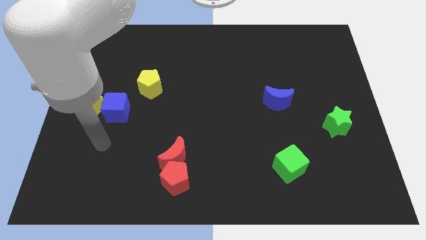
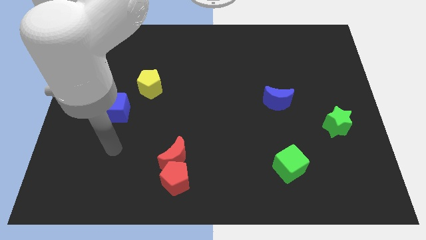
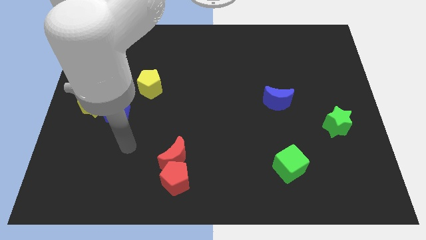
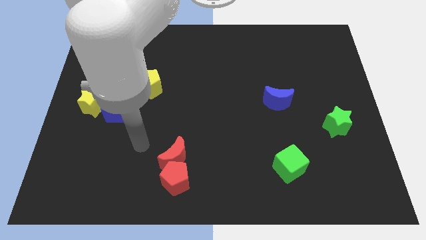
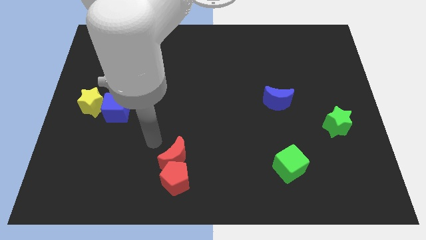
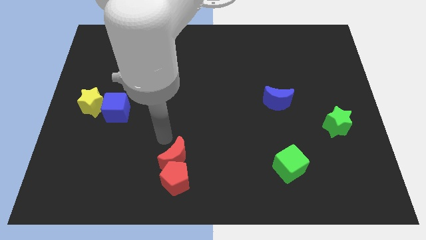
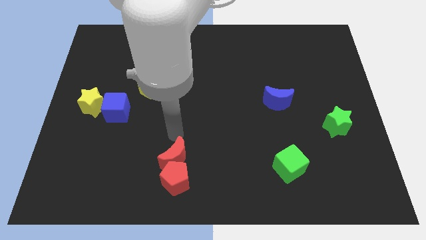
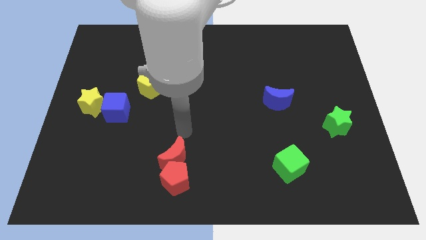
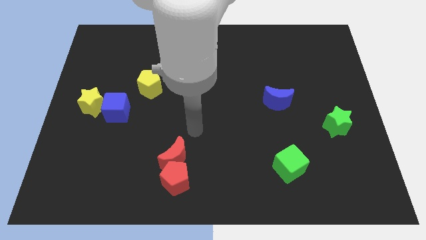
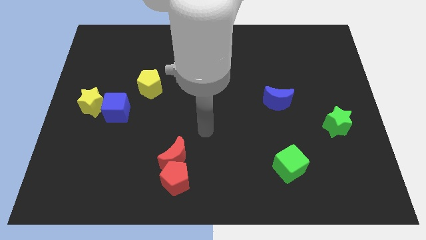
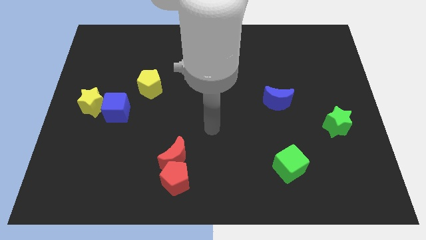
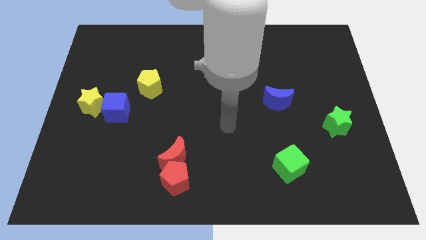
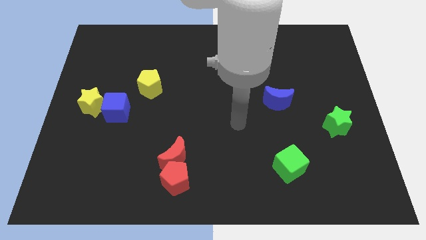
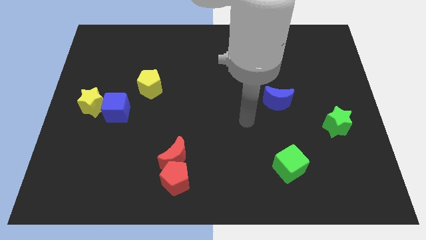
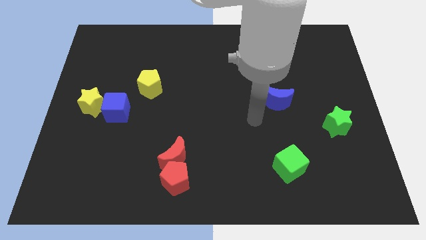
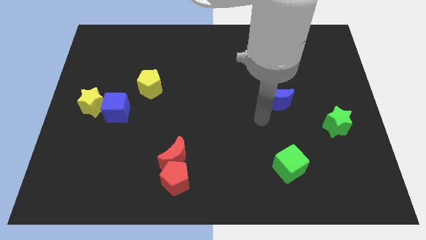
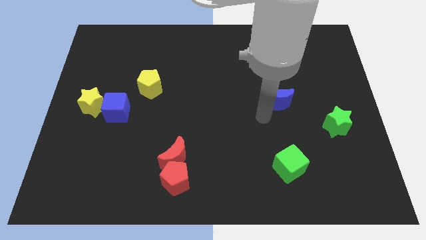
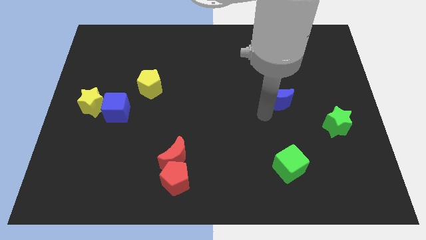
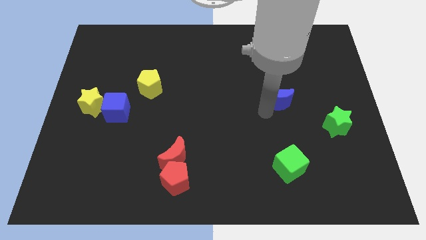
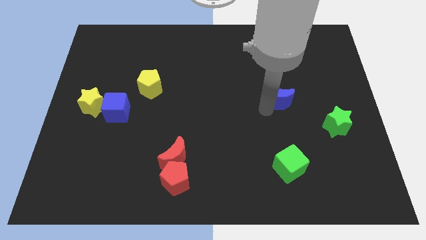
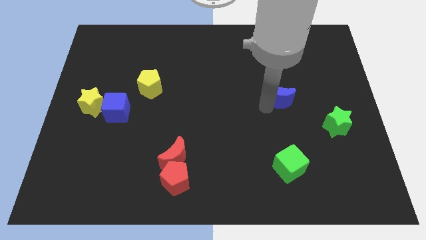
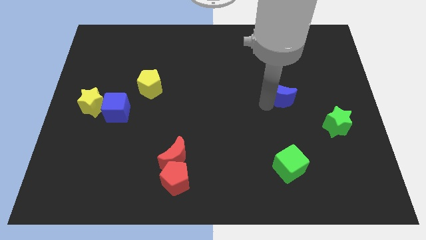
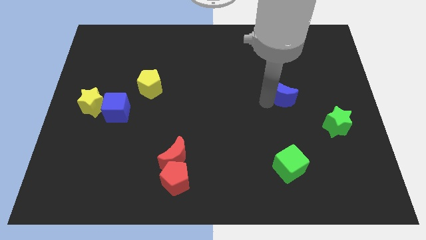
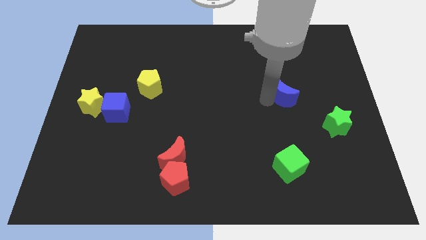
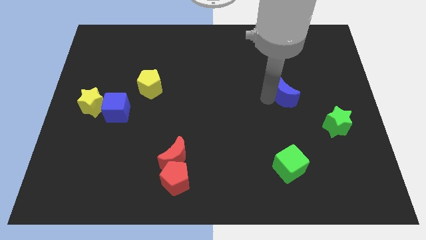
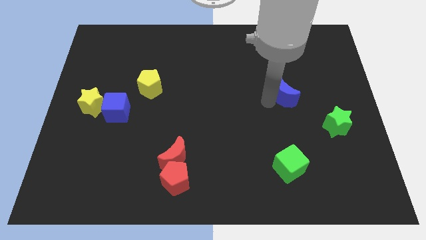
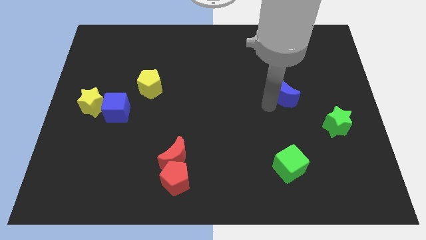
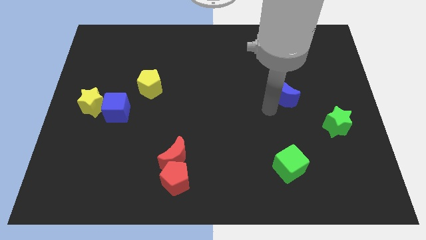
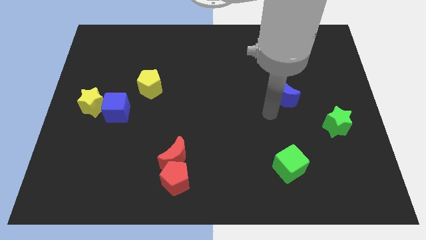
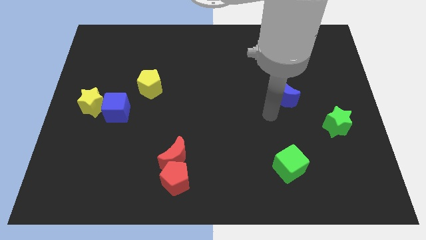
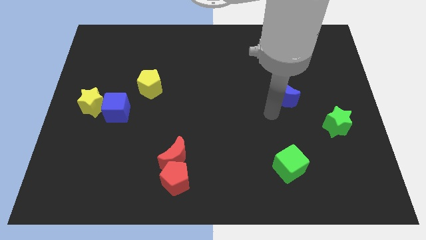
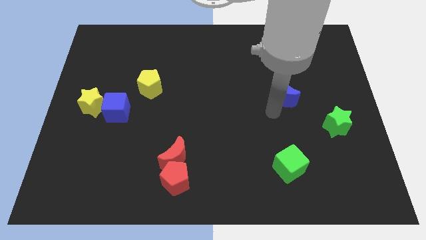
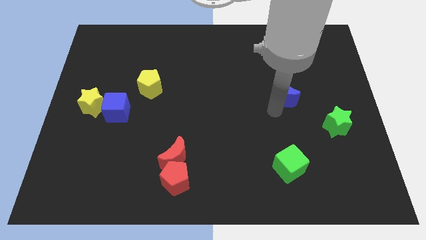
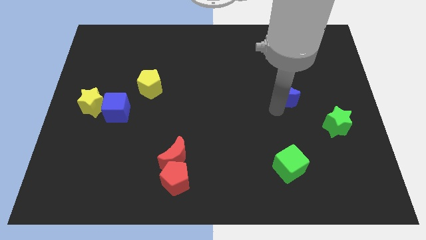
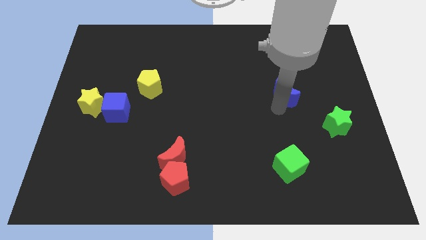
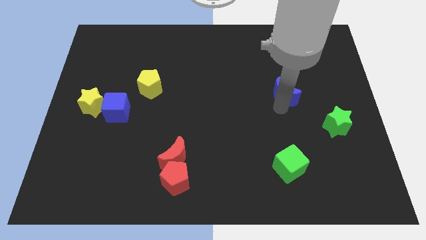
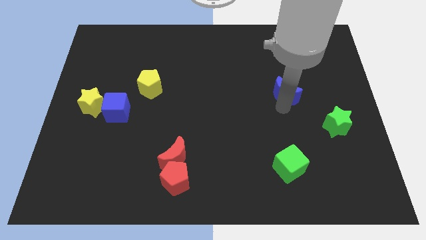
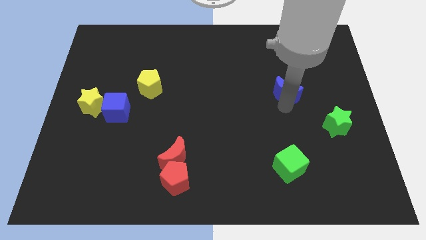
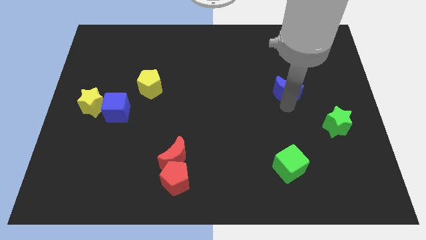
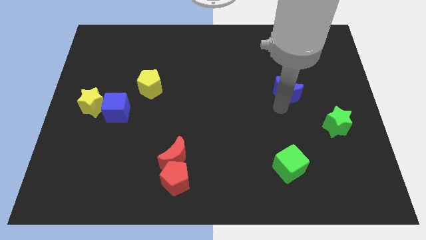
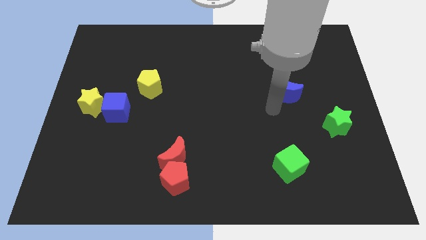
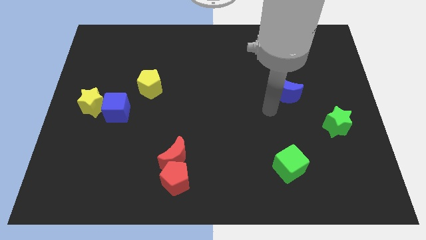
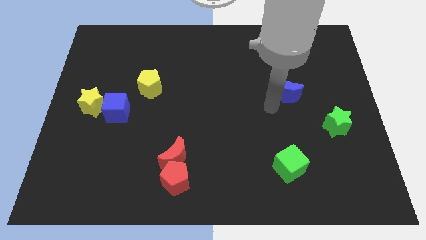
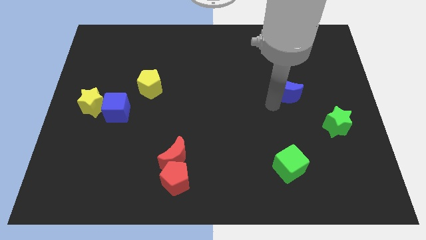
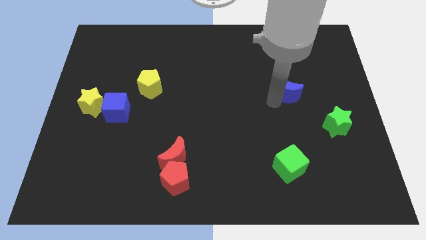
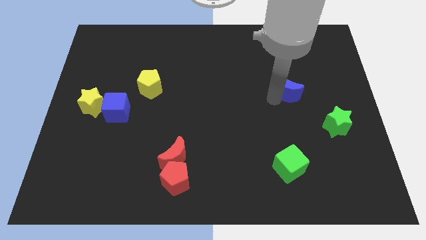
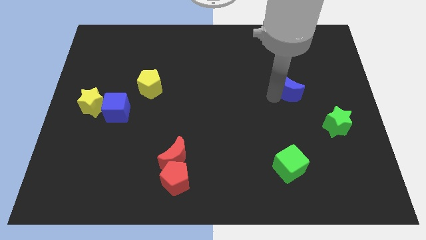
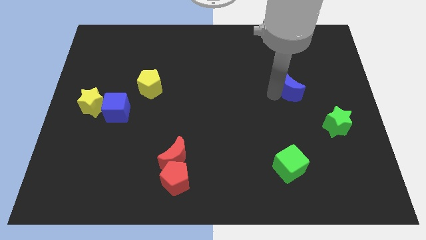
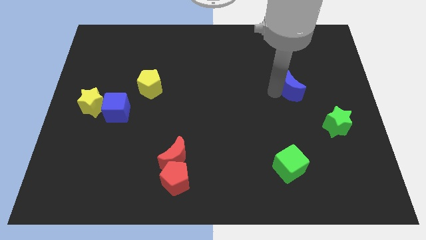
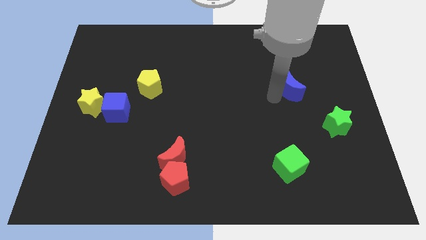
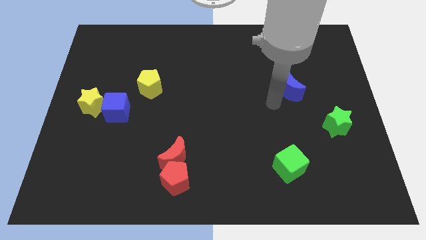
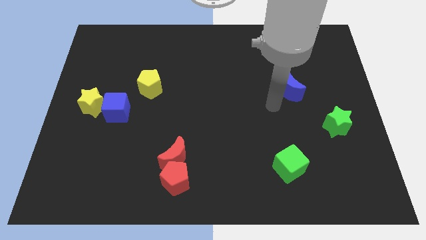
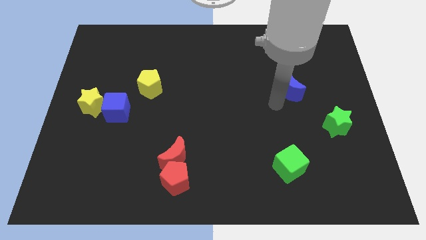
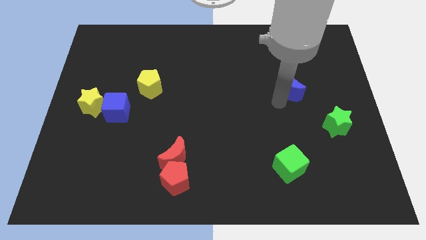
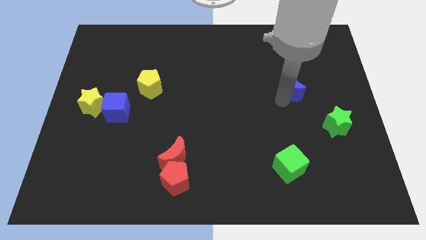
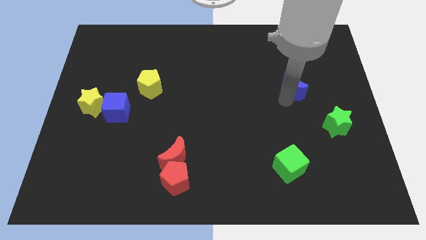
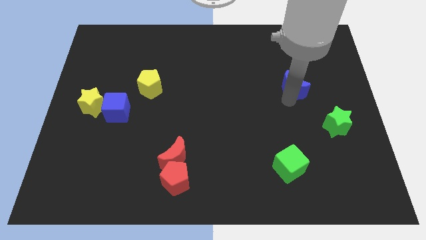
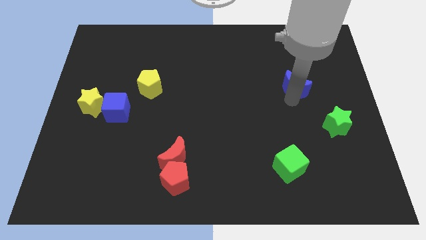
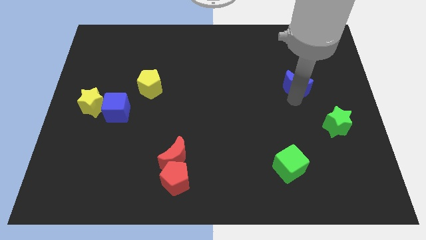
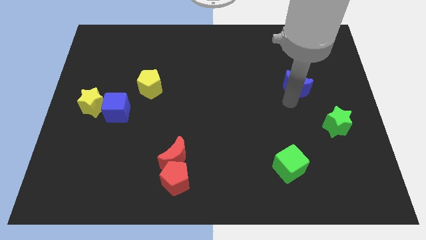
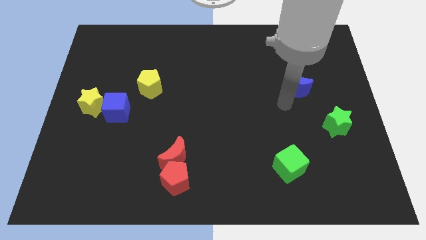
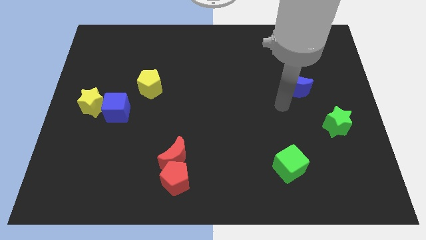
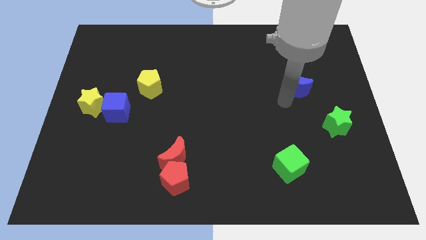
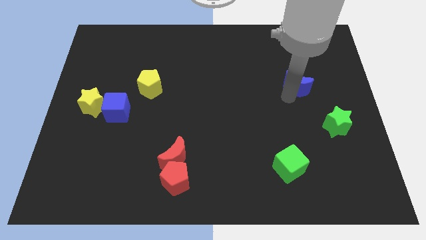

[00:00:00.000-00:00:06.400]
push the blue moon a little upwards and to the right diagonally

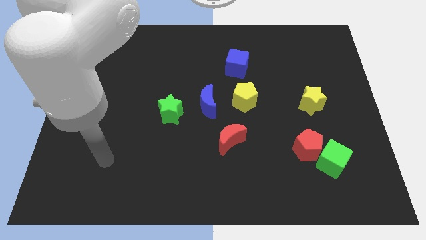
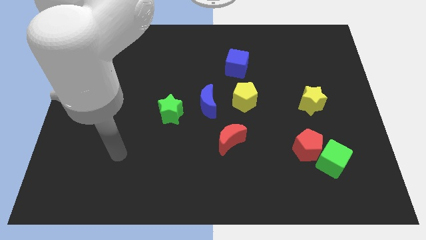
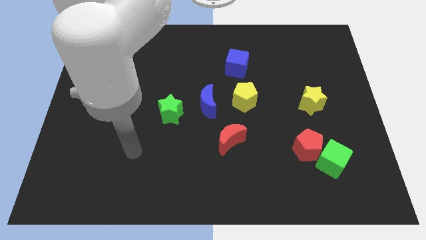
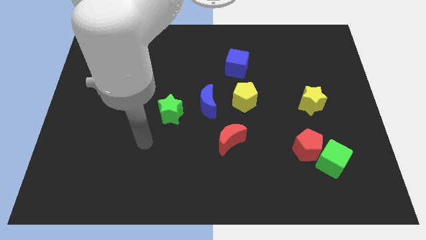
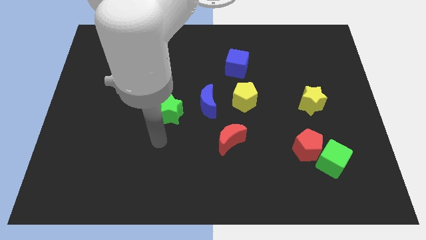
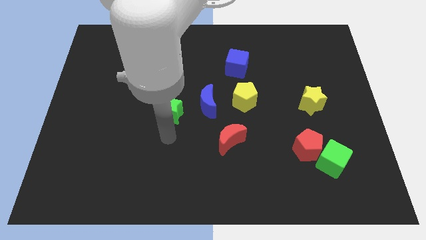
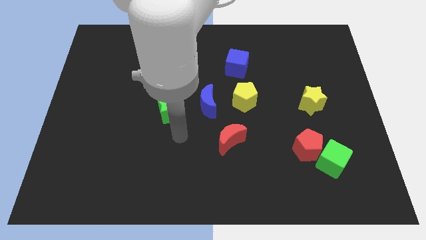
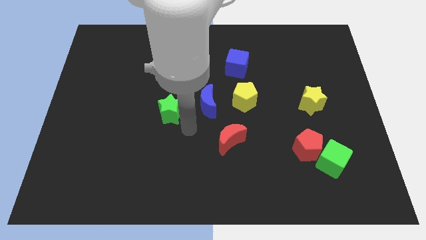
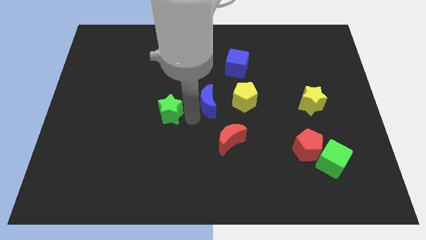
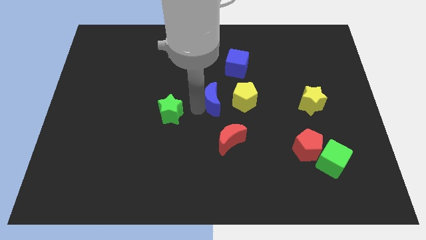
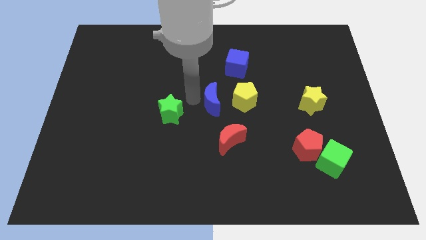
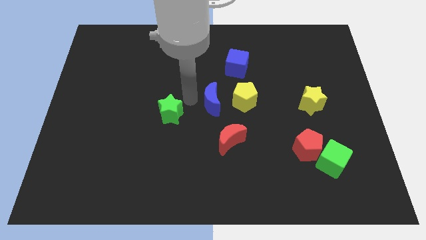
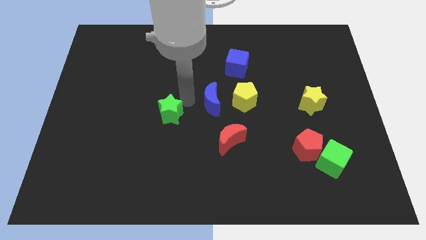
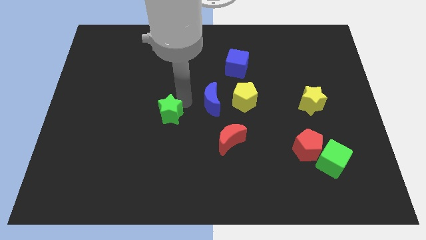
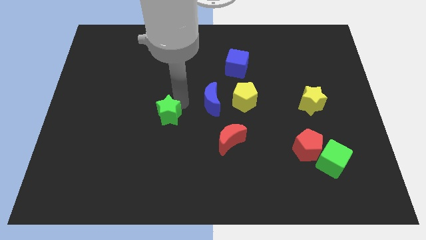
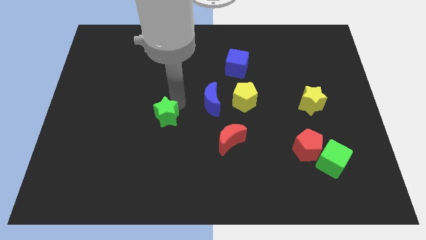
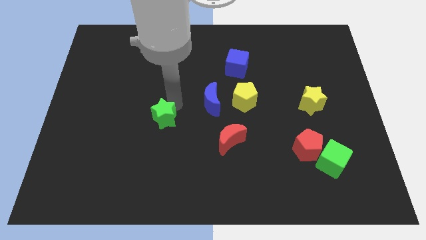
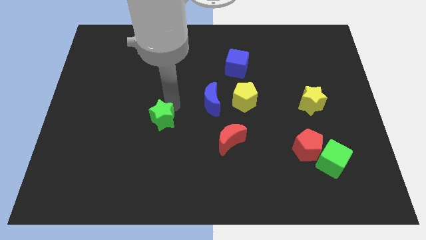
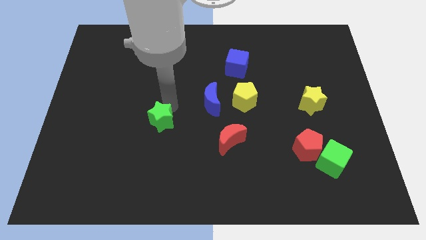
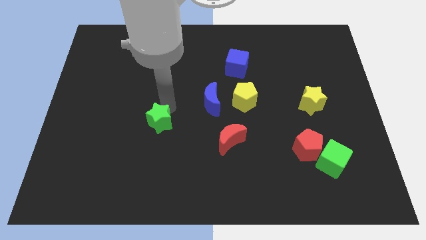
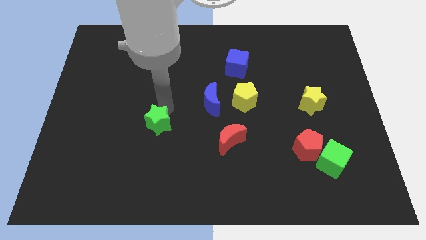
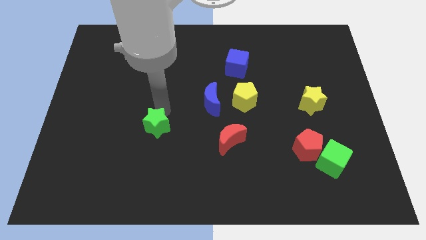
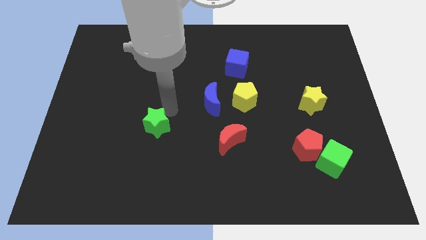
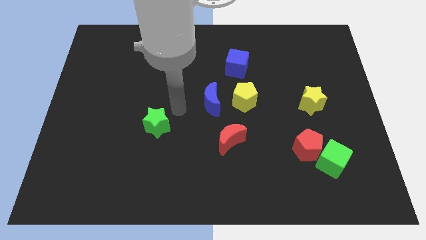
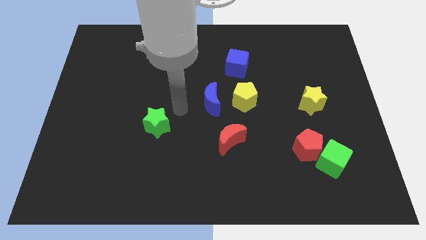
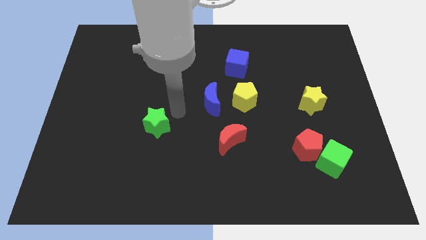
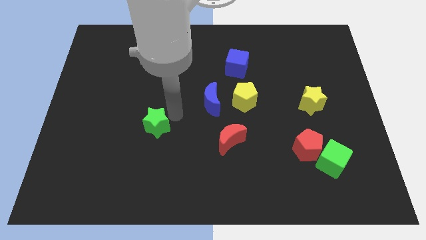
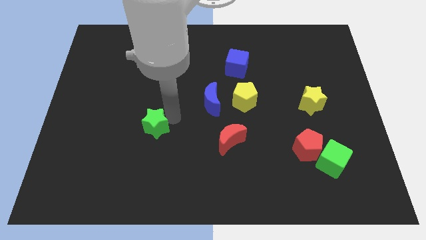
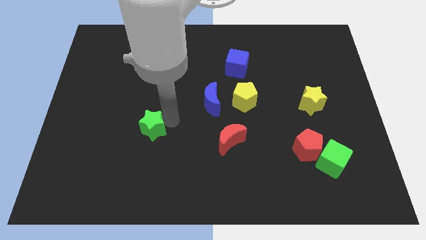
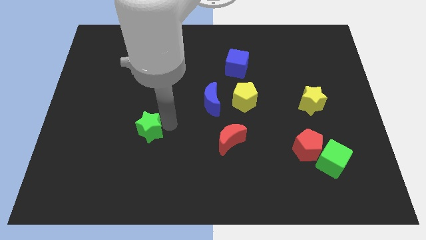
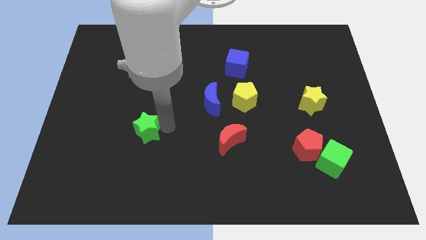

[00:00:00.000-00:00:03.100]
slightly slide the green star diagonally down and to the left
